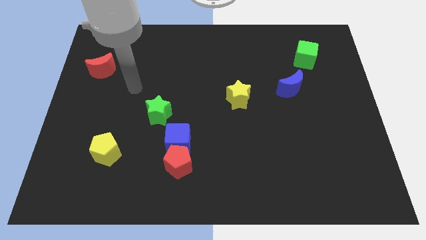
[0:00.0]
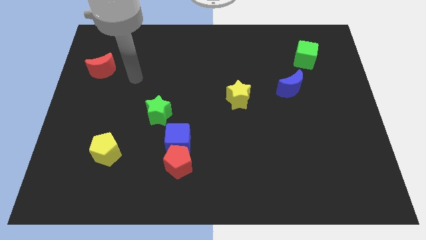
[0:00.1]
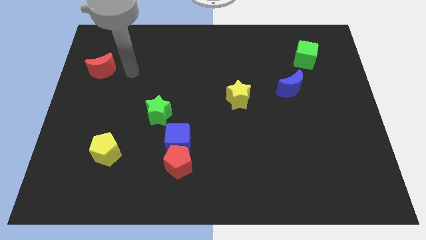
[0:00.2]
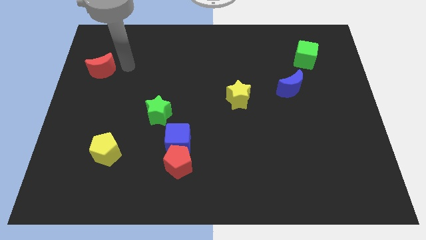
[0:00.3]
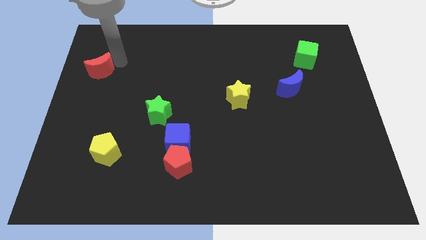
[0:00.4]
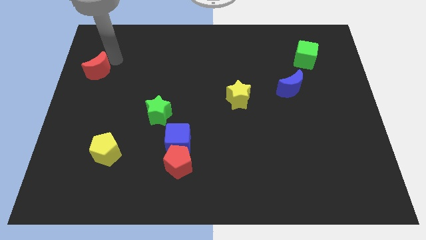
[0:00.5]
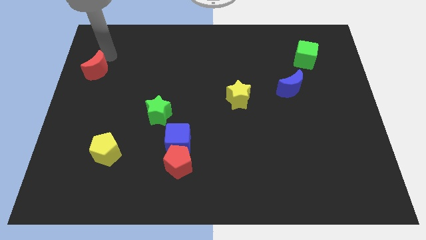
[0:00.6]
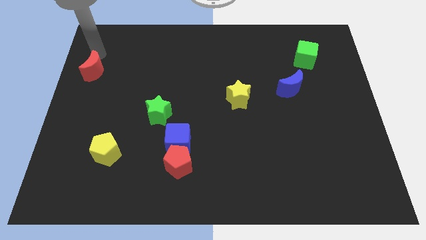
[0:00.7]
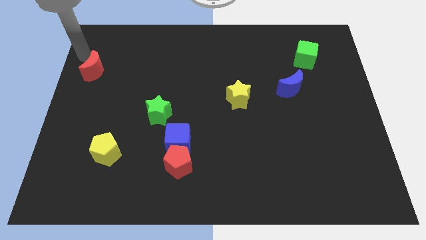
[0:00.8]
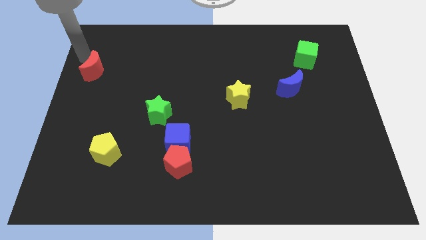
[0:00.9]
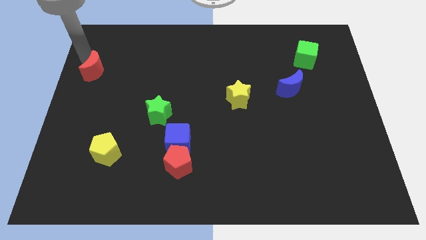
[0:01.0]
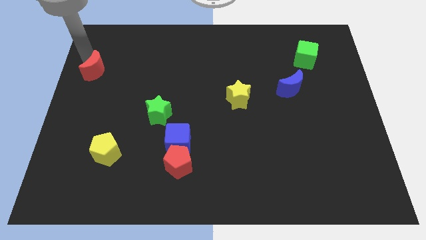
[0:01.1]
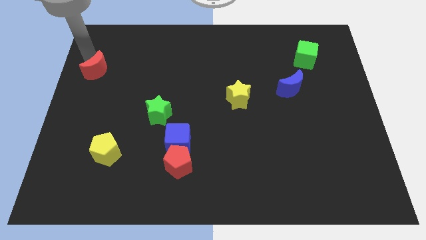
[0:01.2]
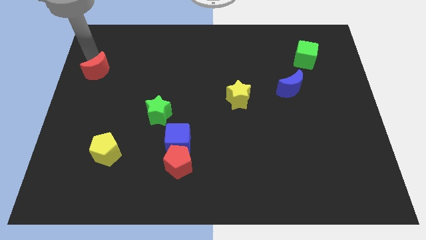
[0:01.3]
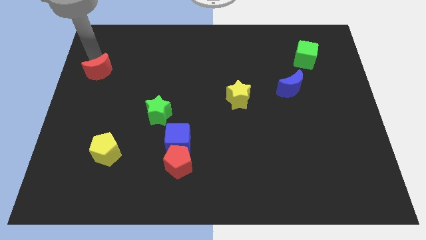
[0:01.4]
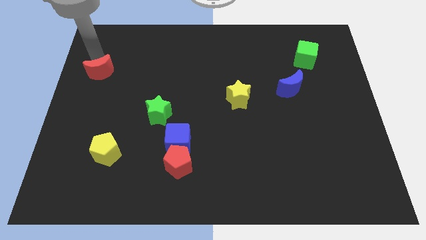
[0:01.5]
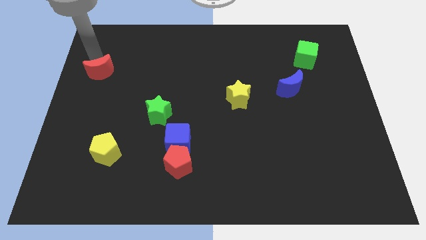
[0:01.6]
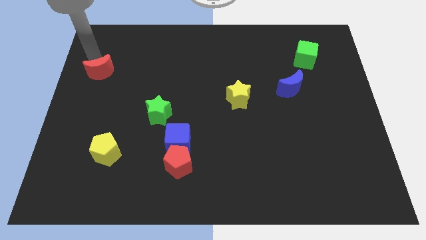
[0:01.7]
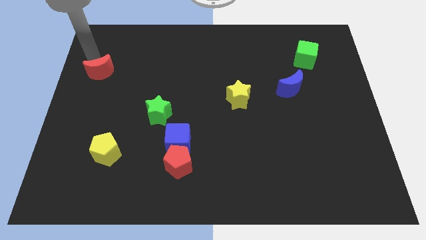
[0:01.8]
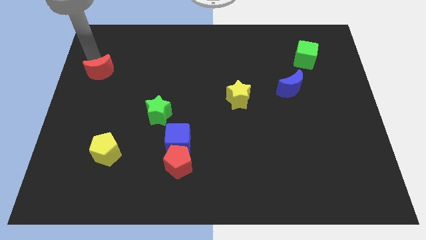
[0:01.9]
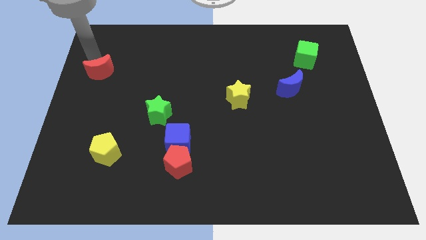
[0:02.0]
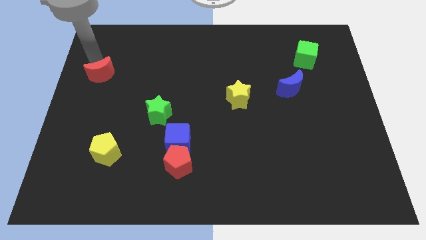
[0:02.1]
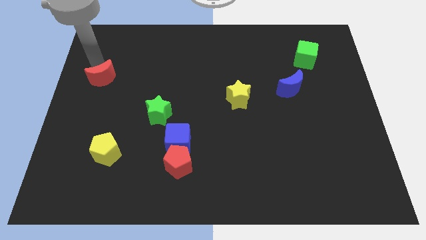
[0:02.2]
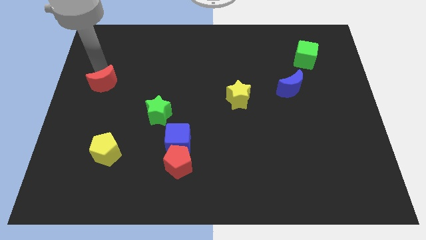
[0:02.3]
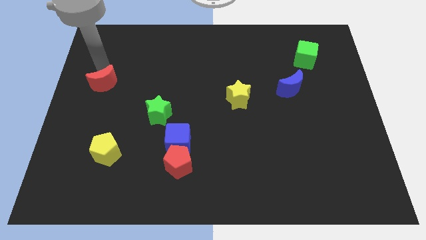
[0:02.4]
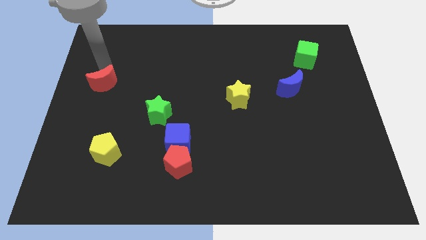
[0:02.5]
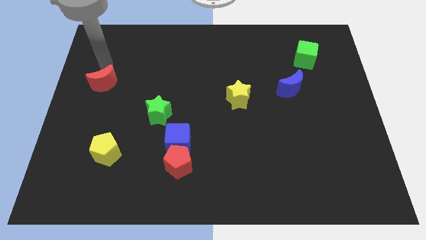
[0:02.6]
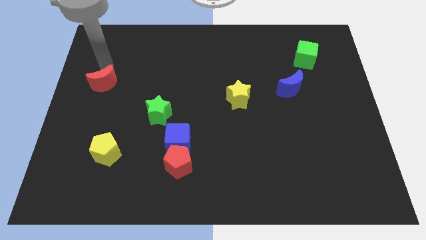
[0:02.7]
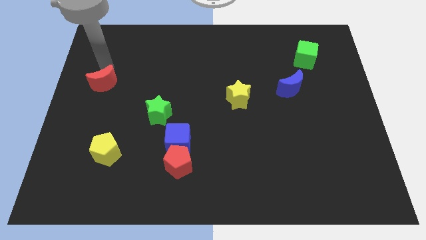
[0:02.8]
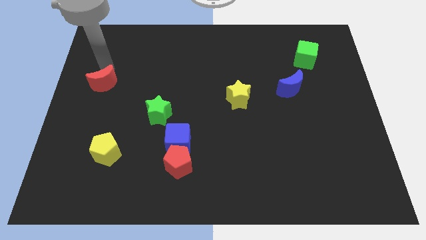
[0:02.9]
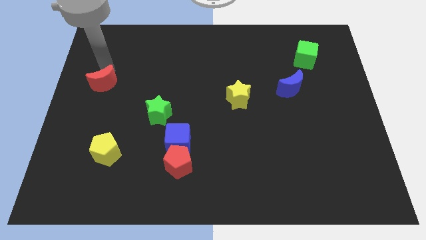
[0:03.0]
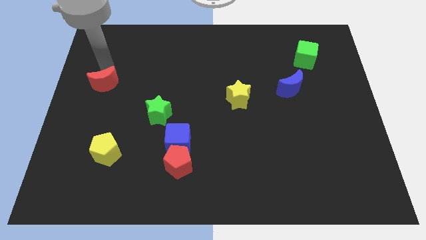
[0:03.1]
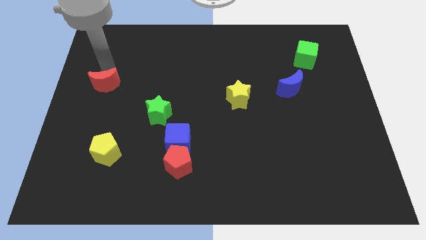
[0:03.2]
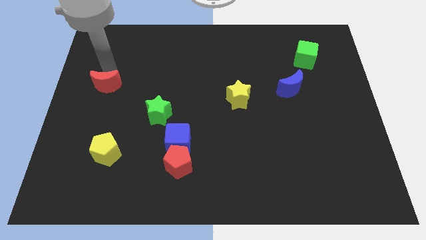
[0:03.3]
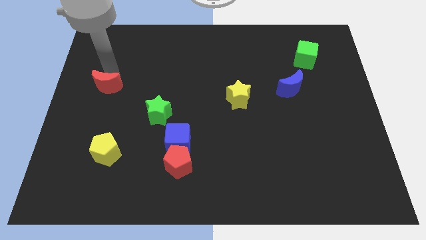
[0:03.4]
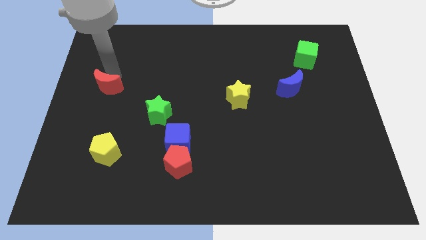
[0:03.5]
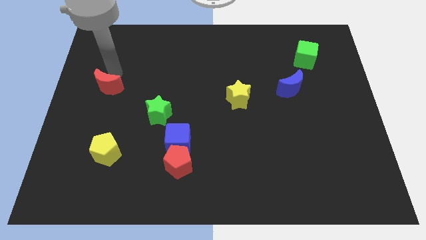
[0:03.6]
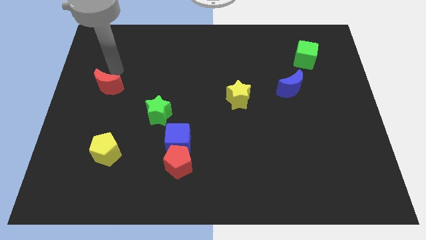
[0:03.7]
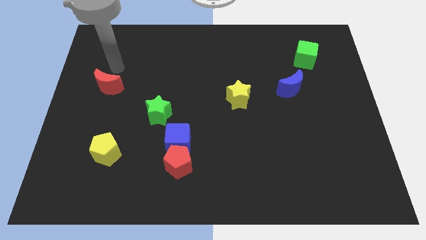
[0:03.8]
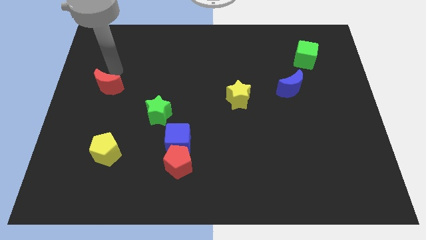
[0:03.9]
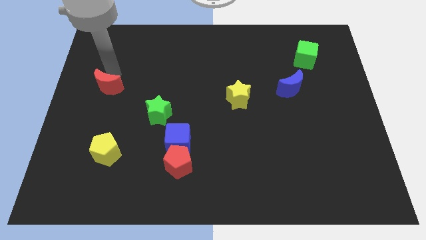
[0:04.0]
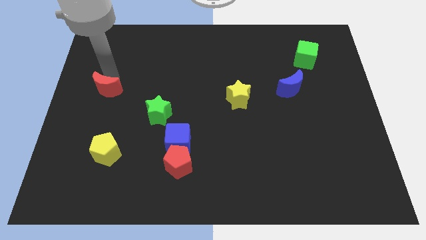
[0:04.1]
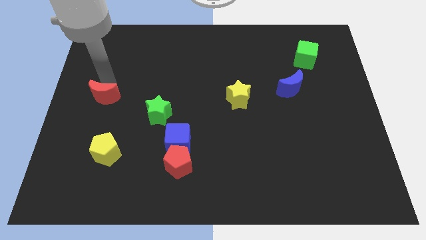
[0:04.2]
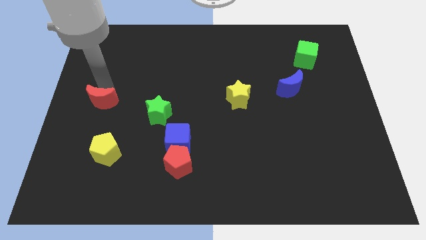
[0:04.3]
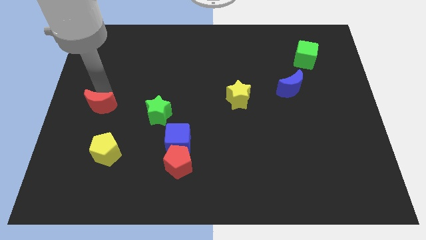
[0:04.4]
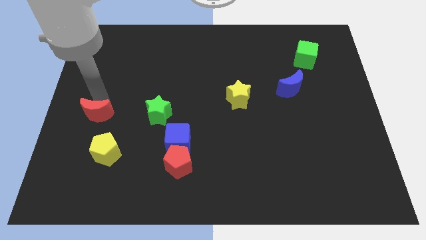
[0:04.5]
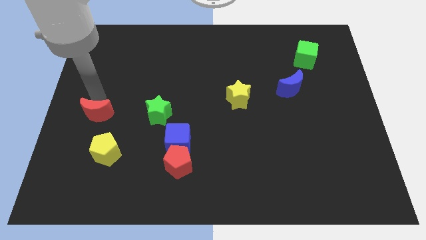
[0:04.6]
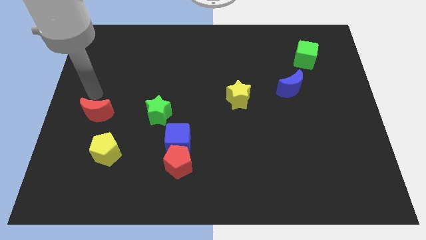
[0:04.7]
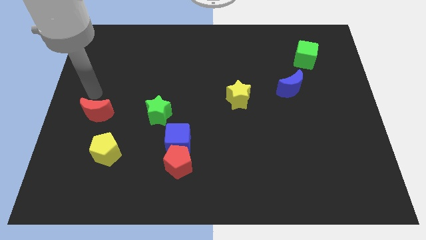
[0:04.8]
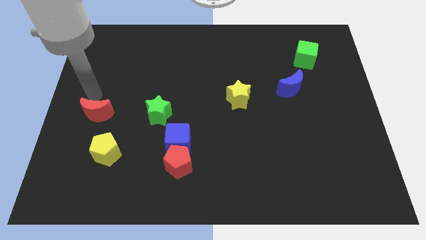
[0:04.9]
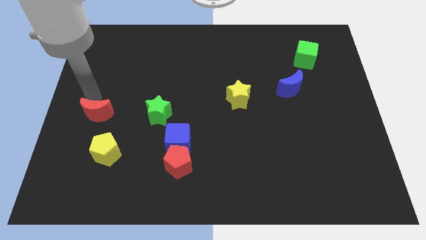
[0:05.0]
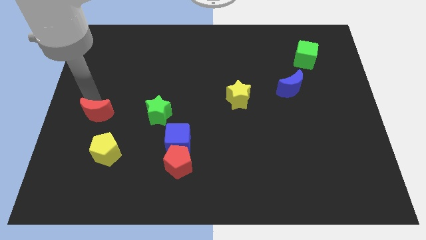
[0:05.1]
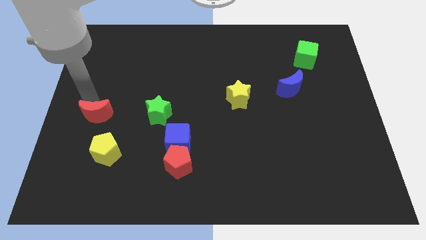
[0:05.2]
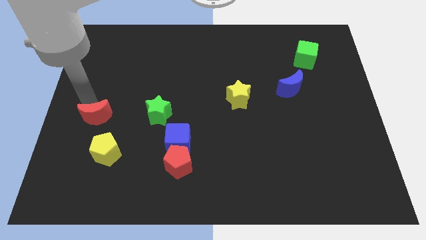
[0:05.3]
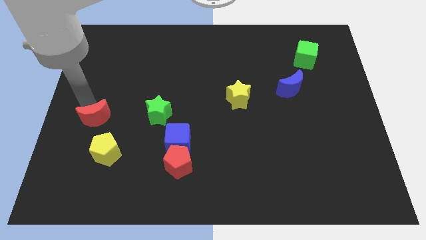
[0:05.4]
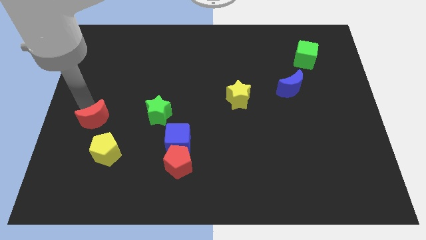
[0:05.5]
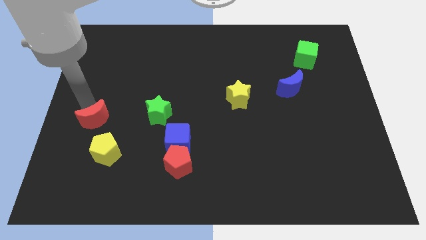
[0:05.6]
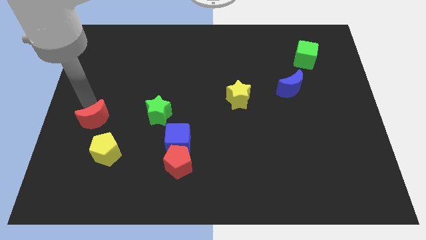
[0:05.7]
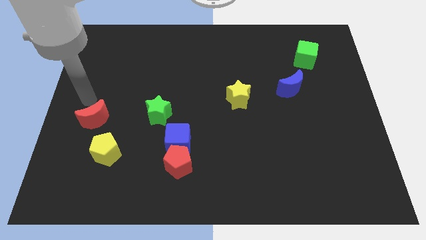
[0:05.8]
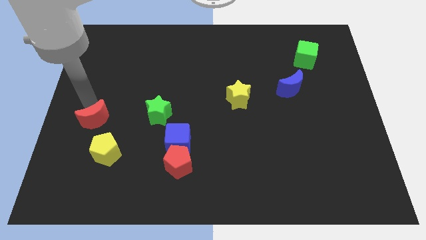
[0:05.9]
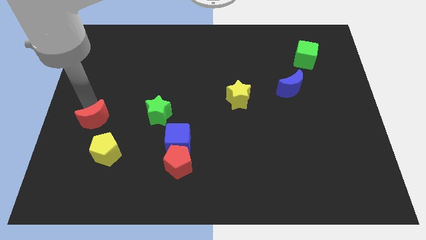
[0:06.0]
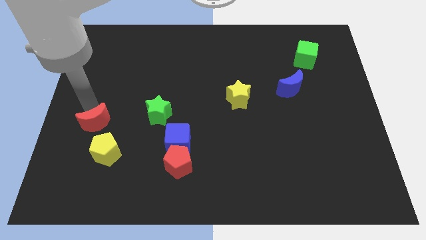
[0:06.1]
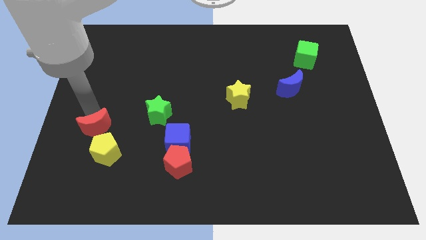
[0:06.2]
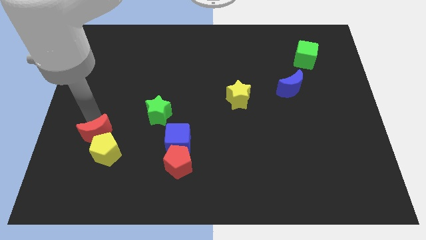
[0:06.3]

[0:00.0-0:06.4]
move the red moon next to the yellow pentagon

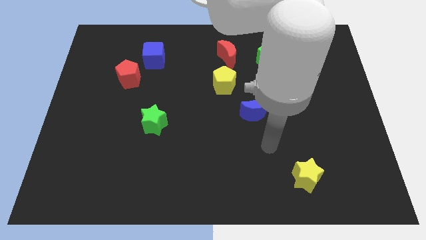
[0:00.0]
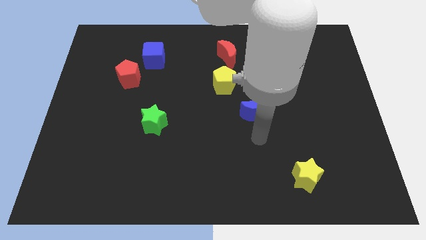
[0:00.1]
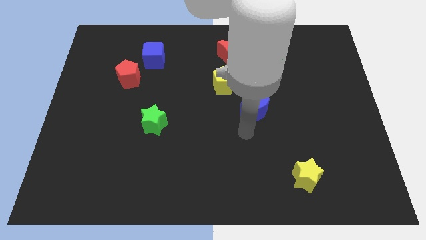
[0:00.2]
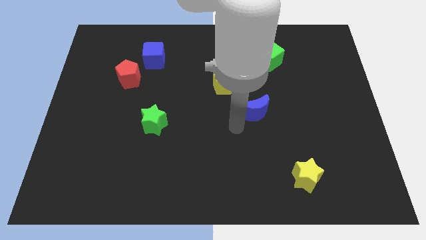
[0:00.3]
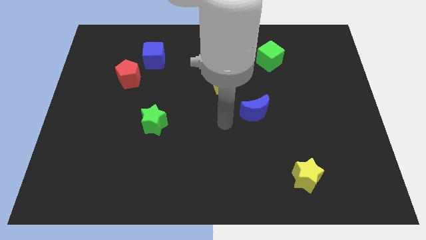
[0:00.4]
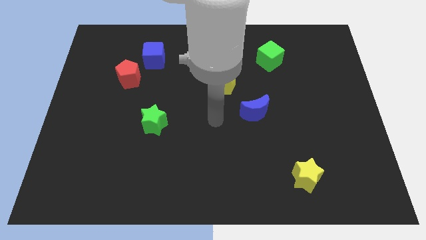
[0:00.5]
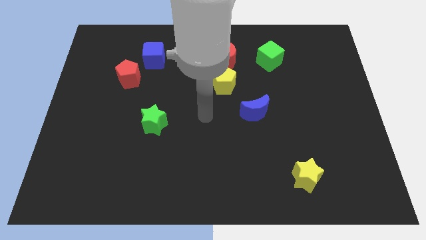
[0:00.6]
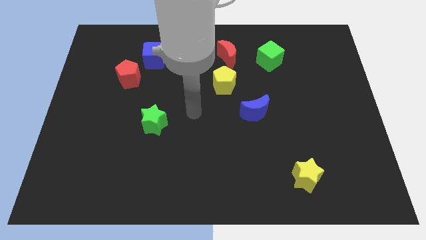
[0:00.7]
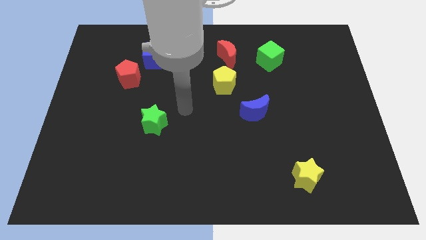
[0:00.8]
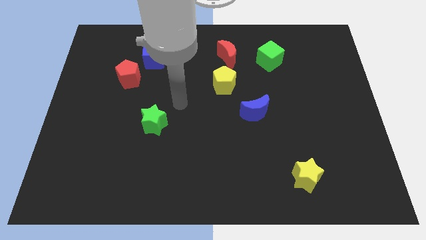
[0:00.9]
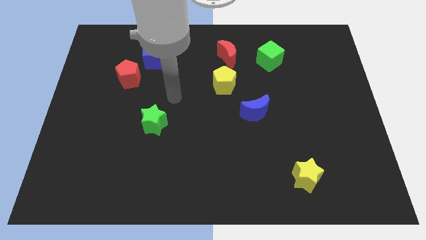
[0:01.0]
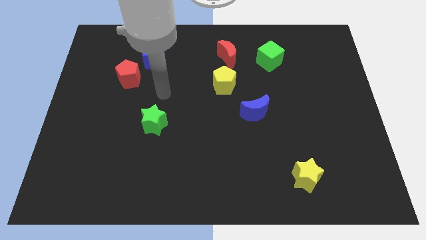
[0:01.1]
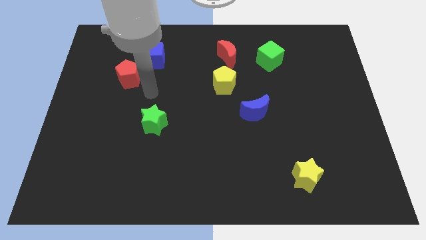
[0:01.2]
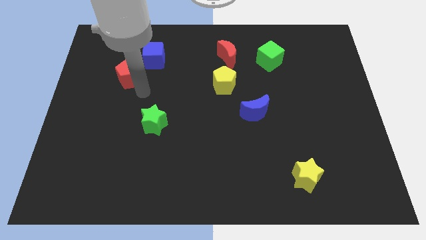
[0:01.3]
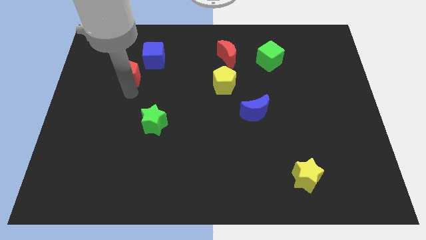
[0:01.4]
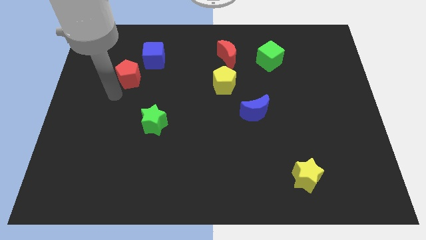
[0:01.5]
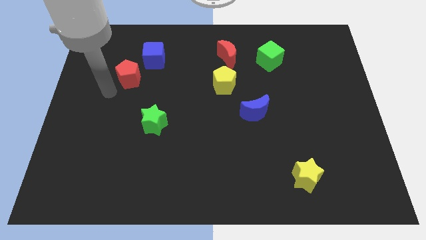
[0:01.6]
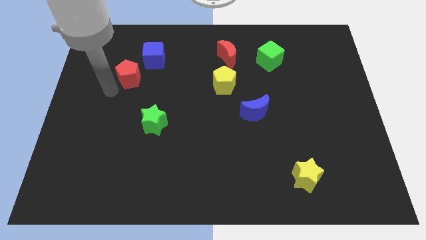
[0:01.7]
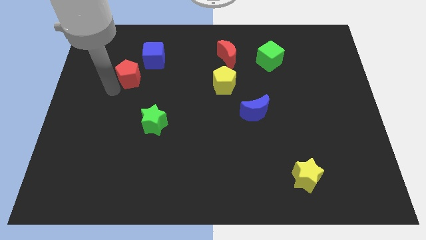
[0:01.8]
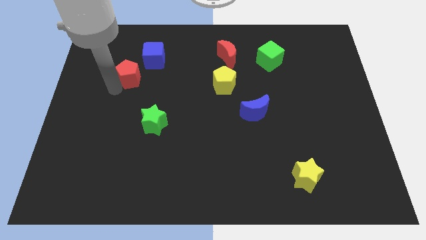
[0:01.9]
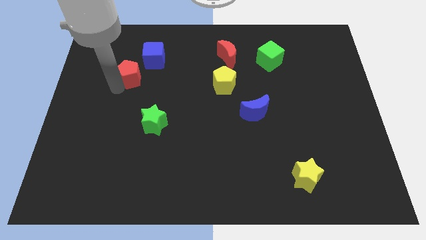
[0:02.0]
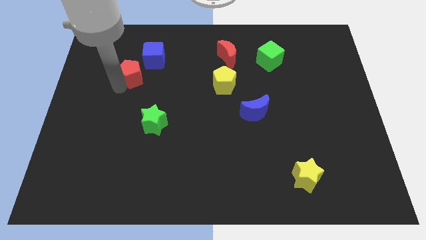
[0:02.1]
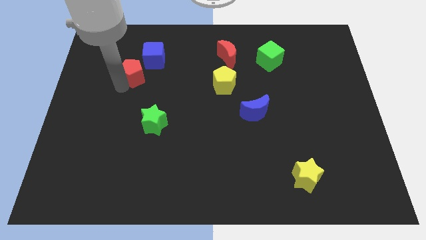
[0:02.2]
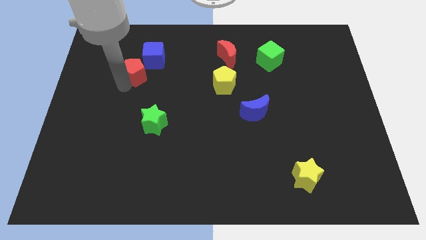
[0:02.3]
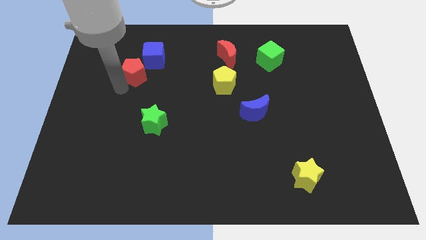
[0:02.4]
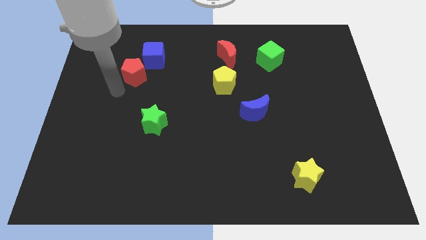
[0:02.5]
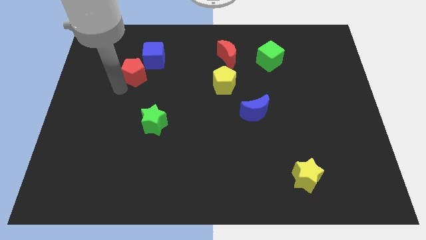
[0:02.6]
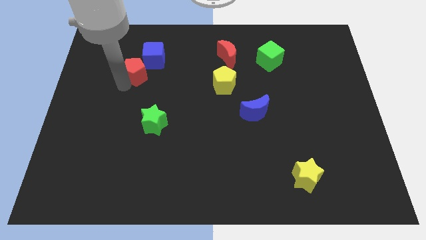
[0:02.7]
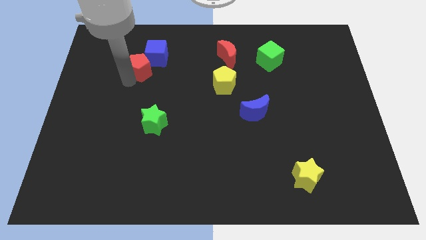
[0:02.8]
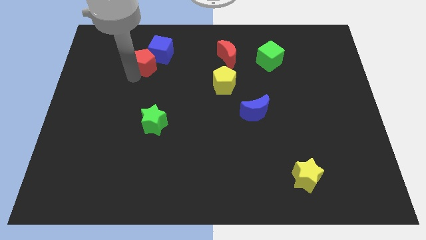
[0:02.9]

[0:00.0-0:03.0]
push the red pentagon close to the blue cube
